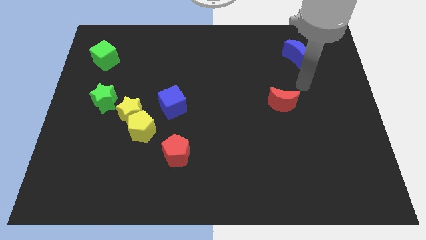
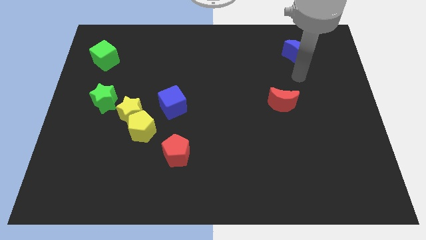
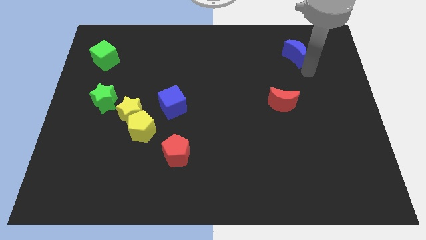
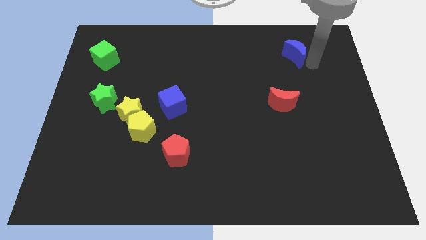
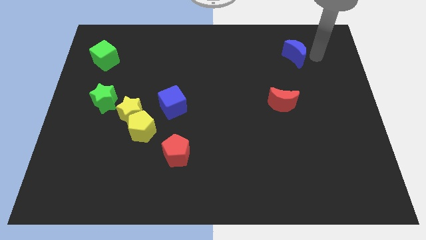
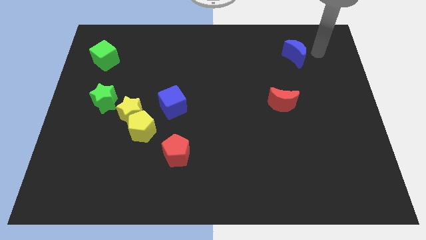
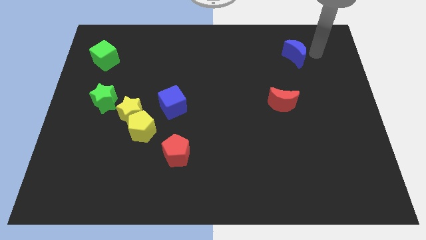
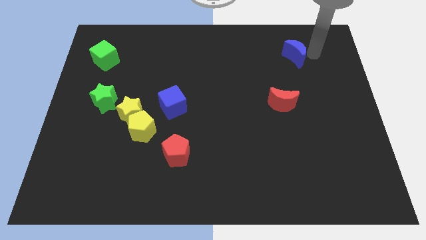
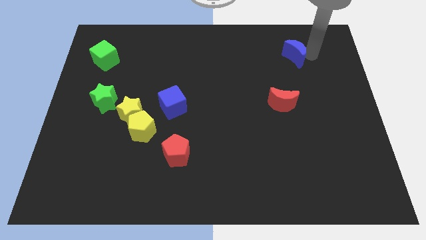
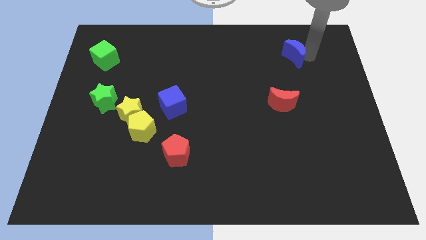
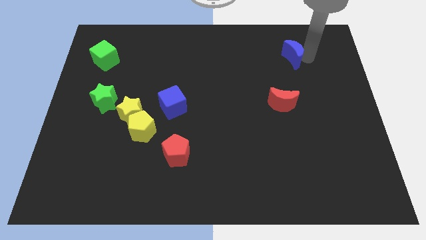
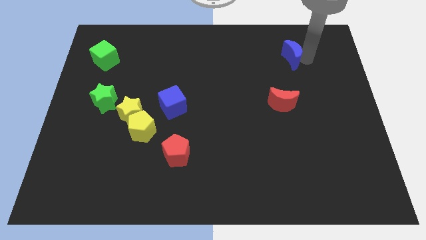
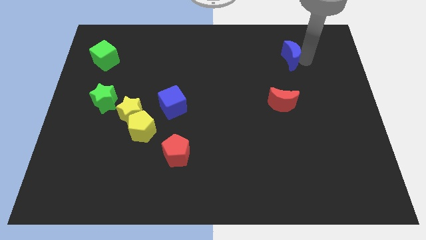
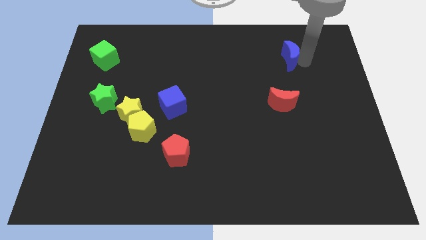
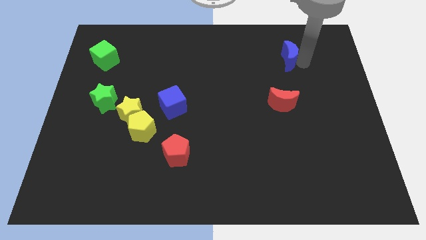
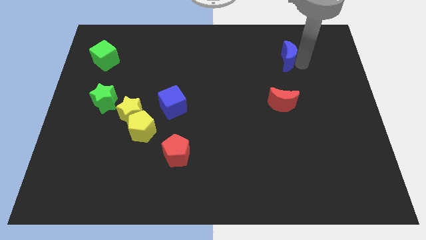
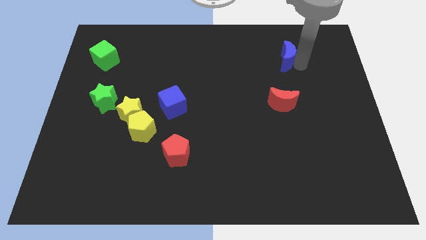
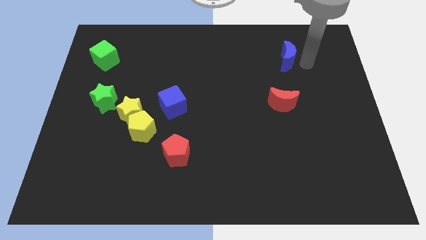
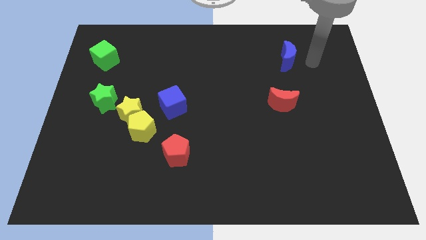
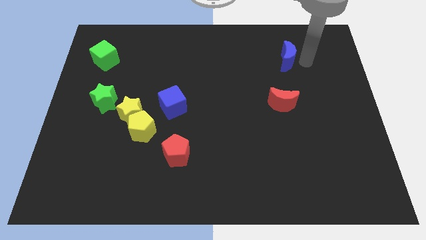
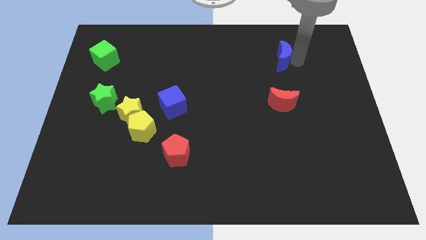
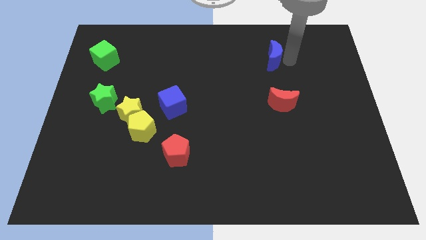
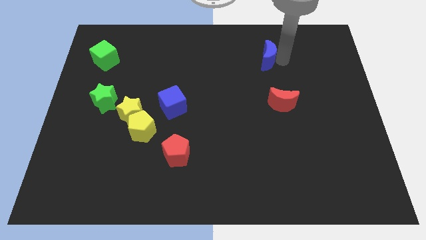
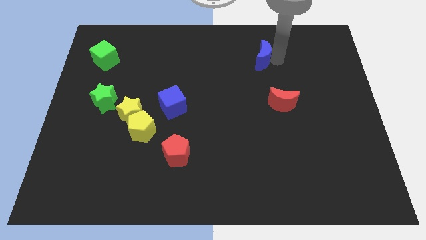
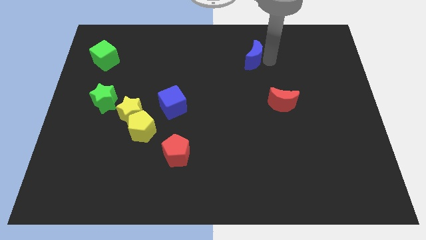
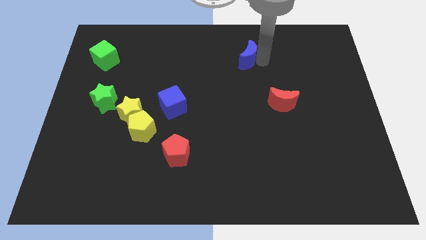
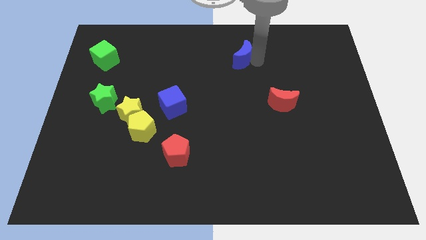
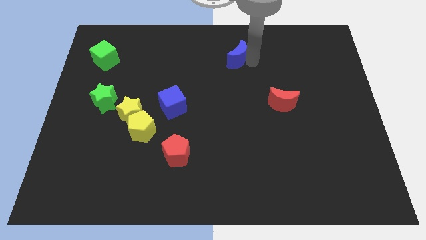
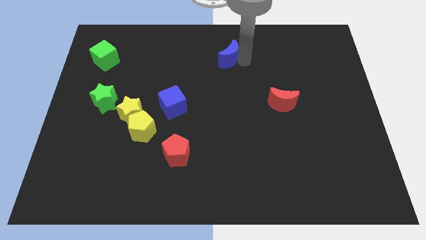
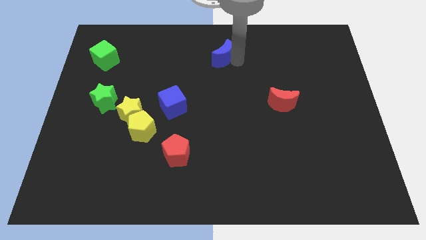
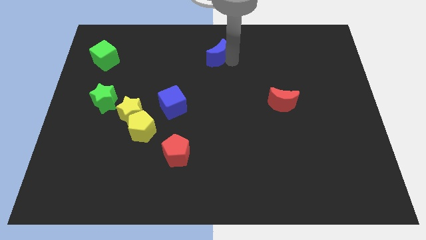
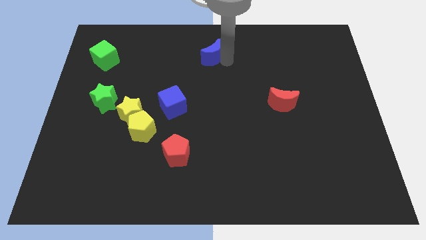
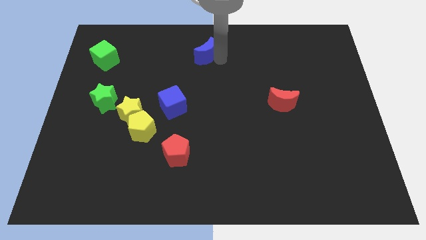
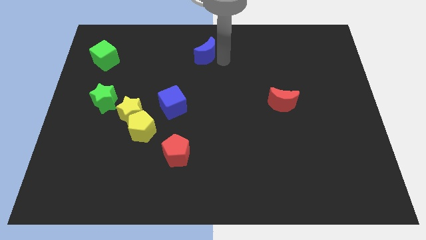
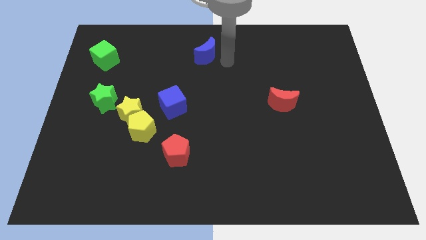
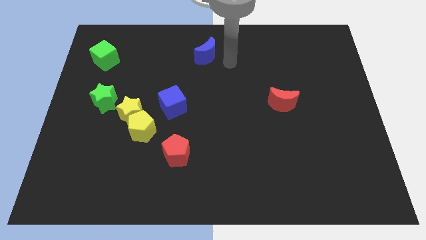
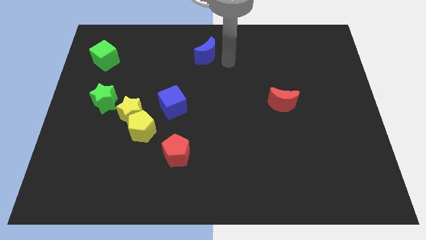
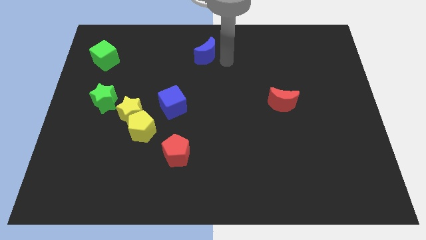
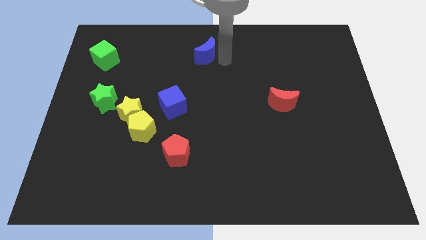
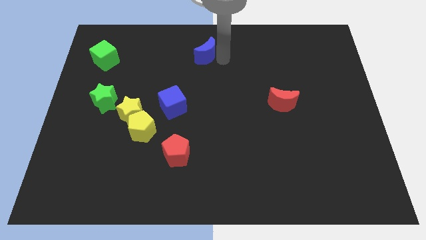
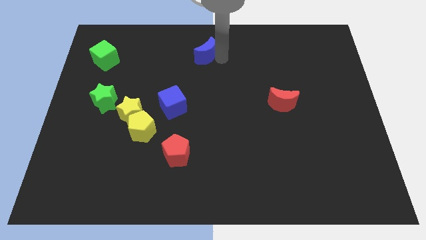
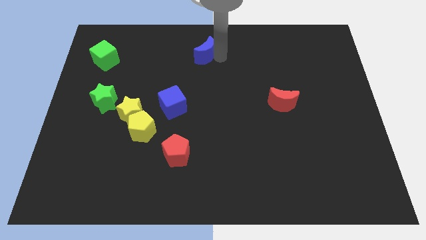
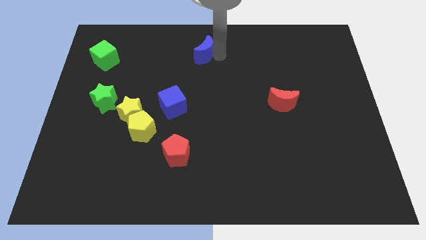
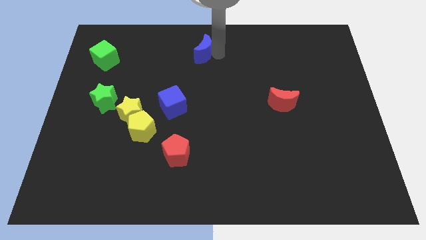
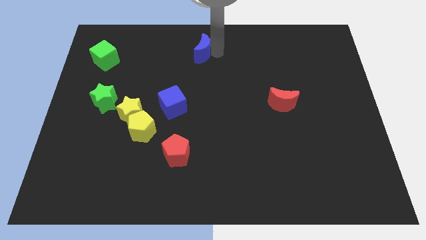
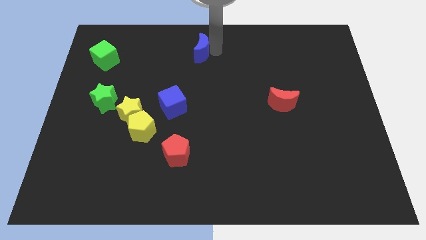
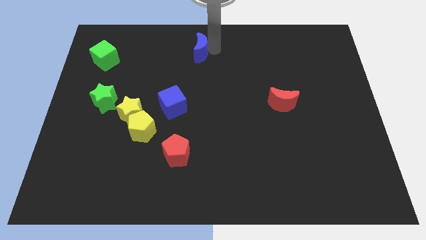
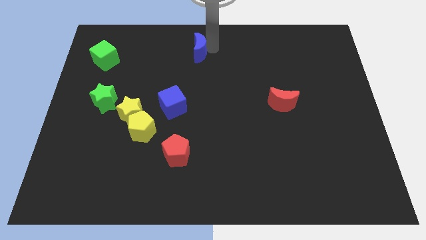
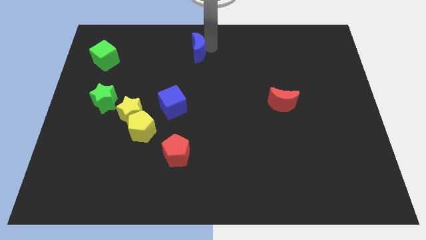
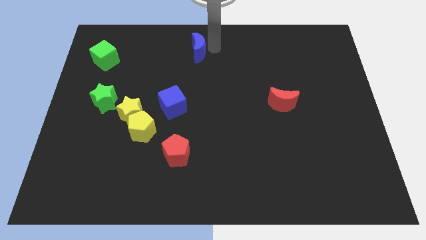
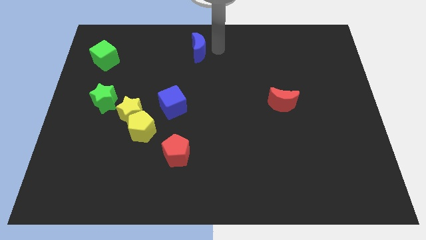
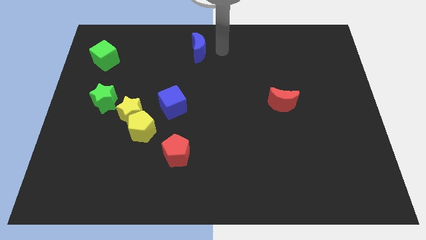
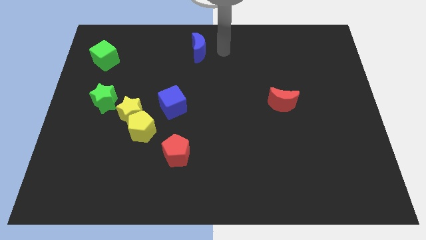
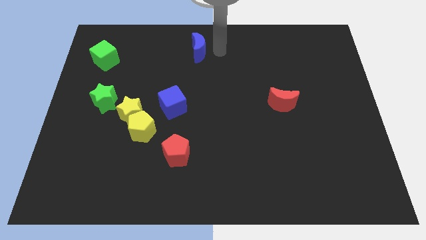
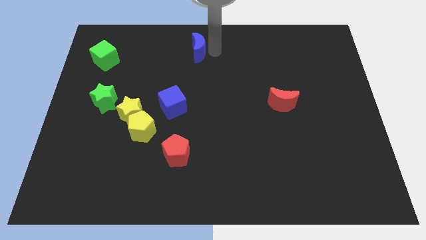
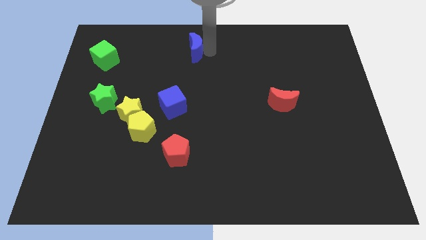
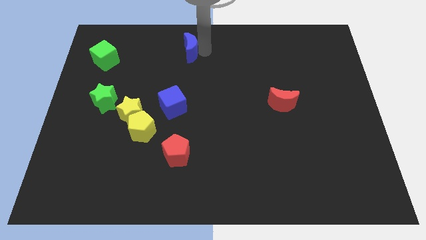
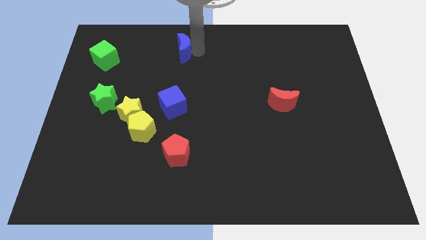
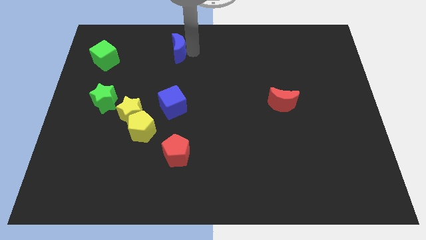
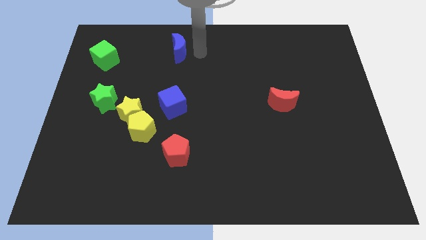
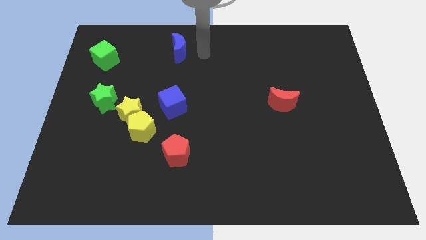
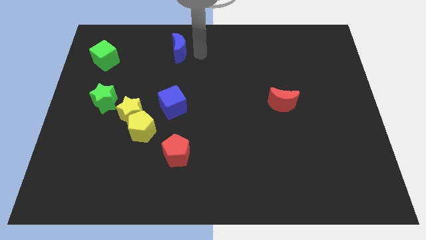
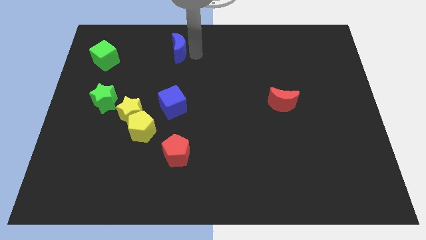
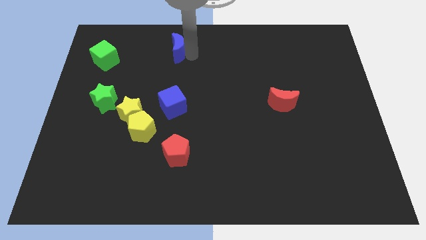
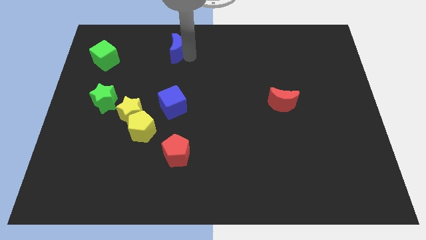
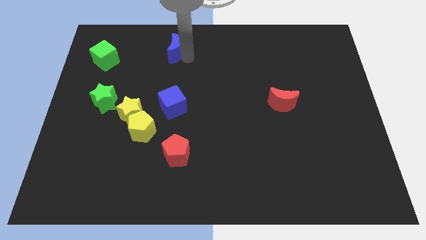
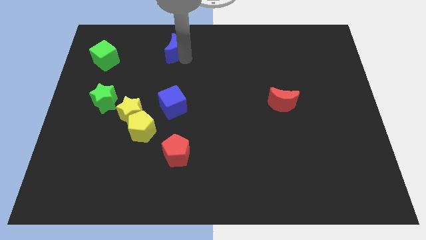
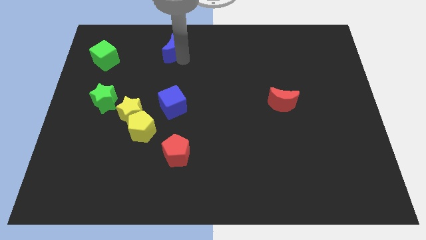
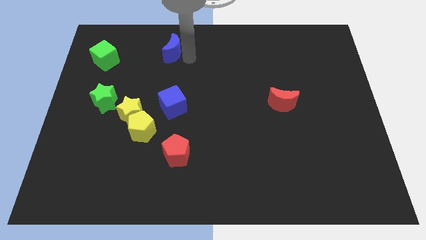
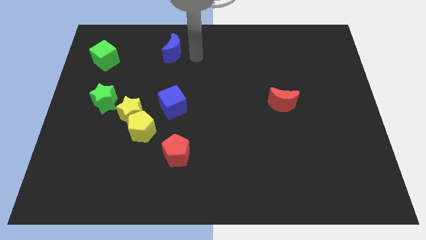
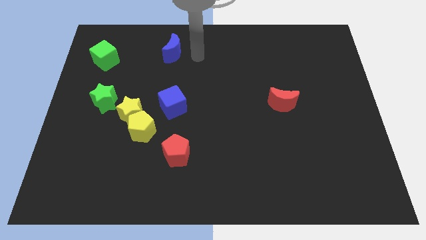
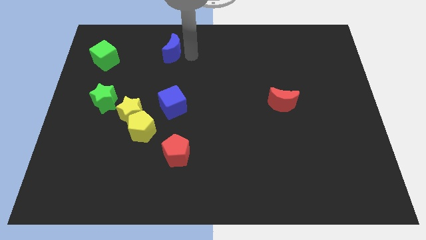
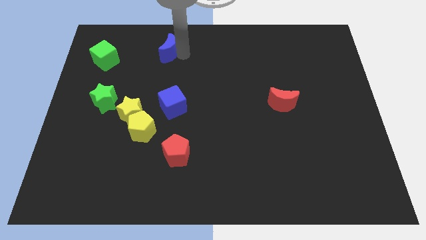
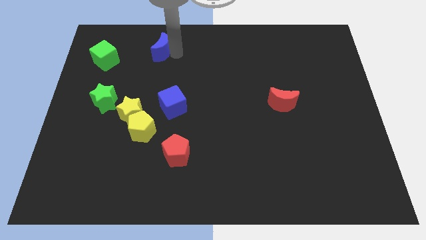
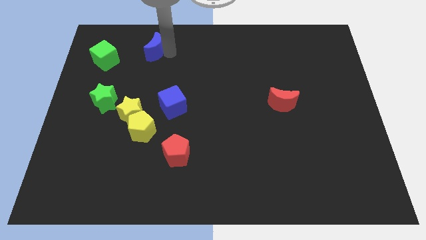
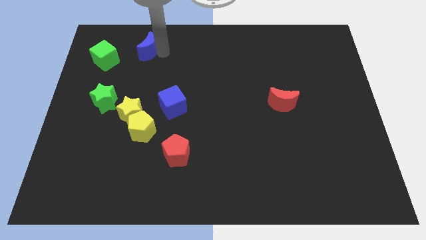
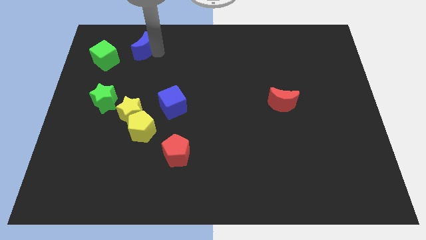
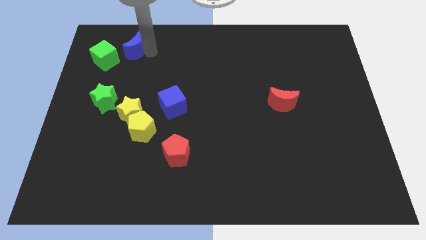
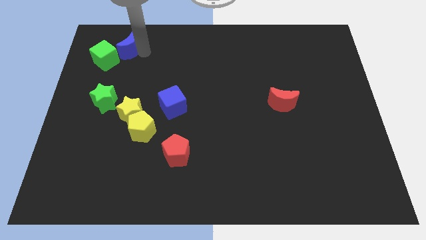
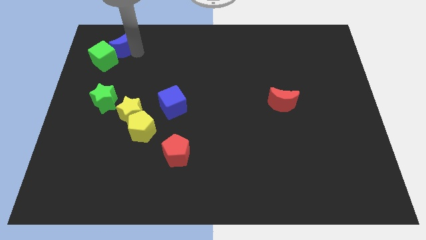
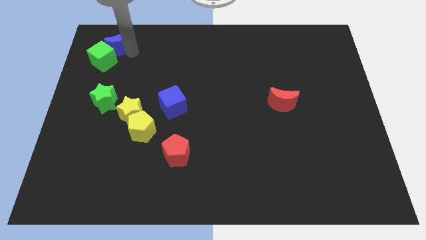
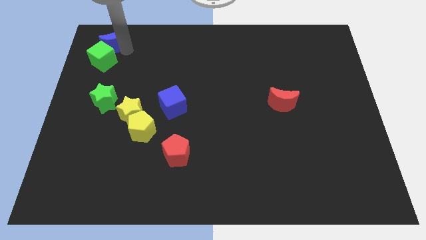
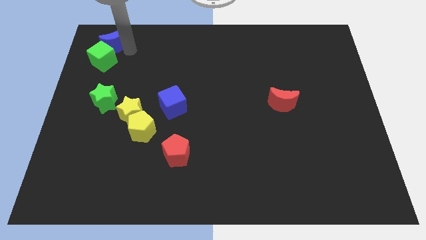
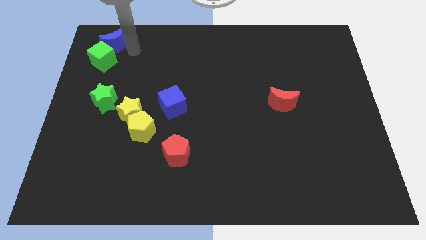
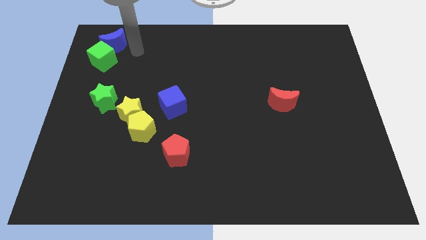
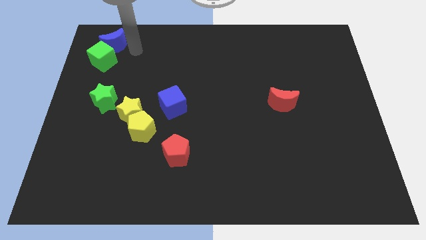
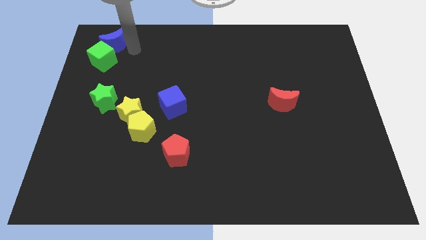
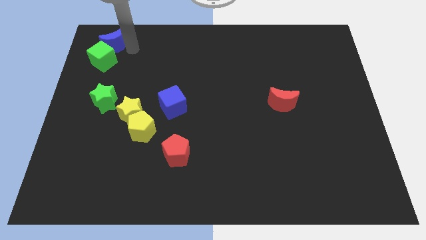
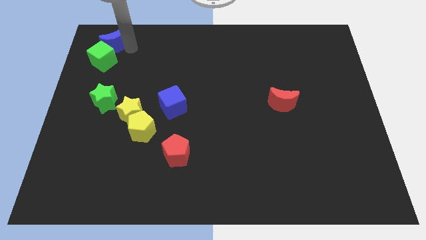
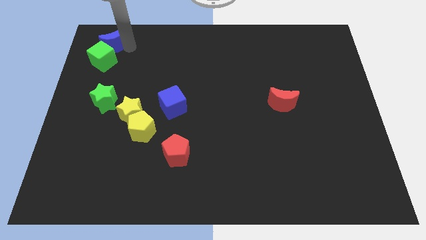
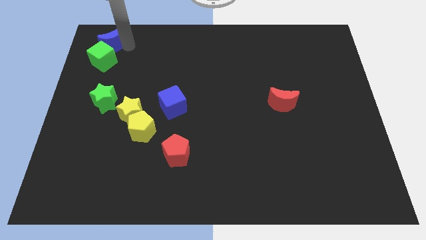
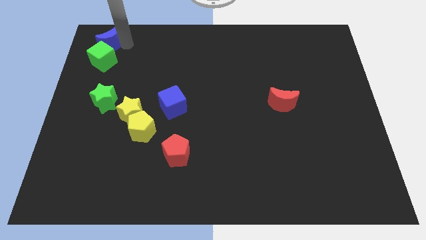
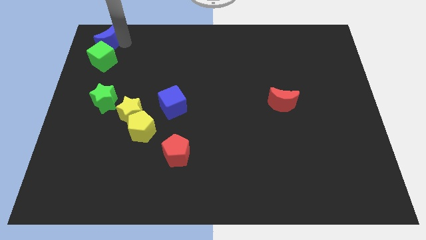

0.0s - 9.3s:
push the blue moon to the upper left corner
